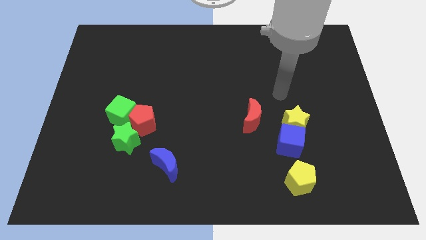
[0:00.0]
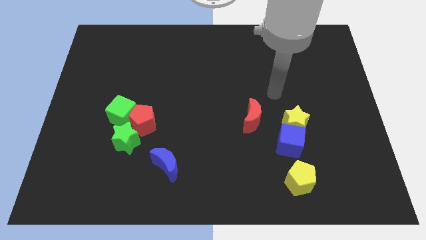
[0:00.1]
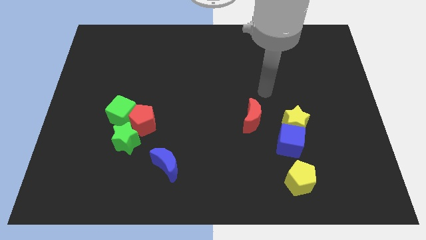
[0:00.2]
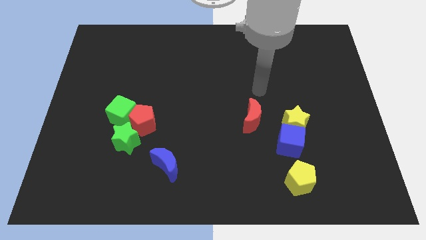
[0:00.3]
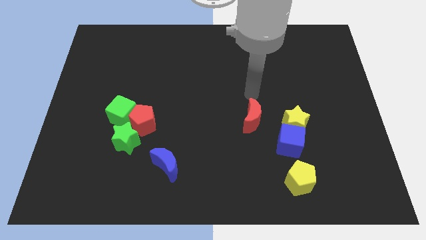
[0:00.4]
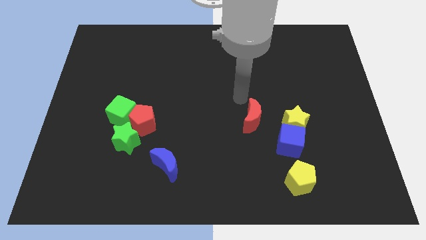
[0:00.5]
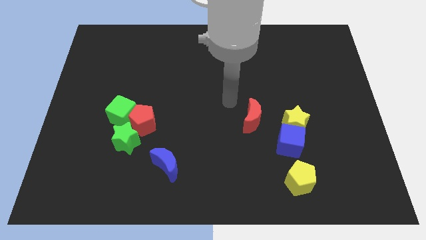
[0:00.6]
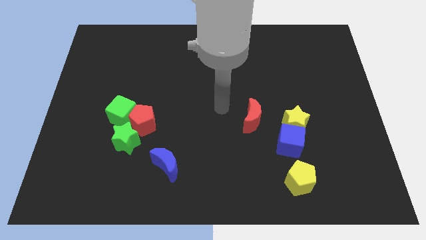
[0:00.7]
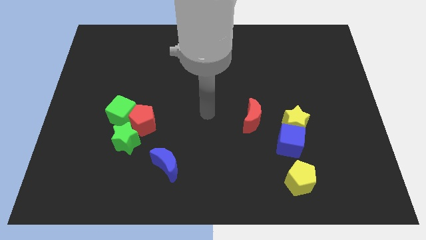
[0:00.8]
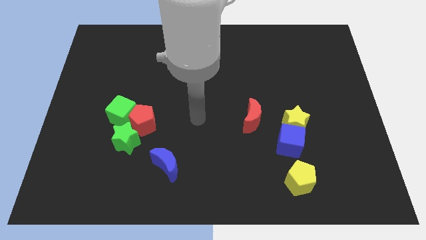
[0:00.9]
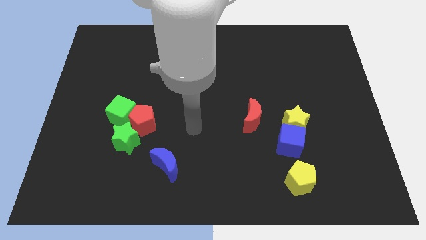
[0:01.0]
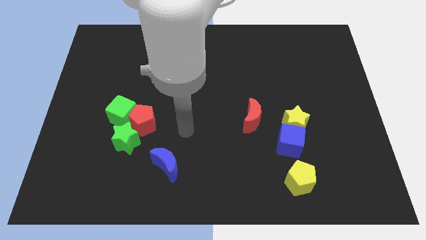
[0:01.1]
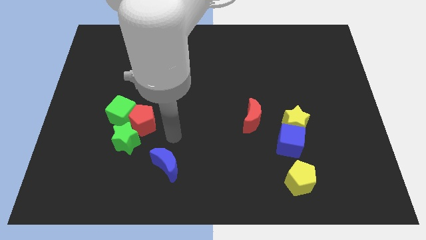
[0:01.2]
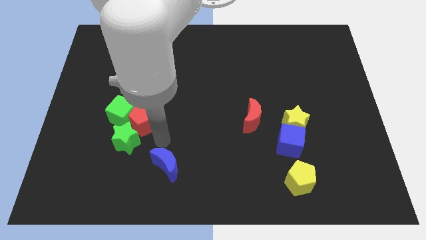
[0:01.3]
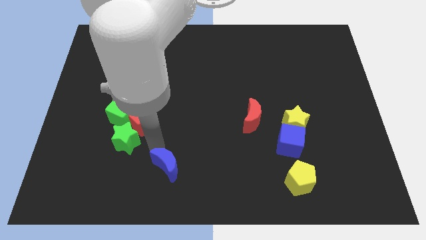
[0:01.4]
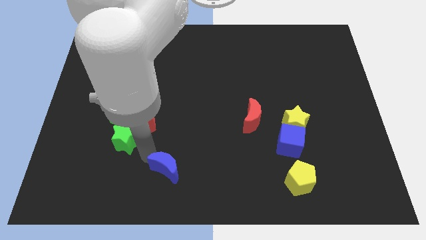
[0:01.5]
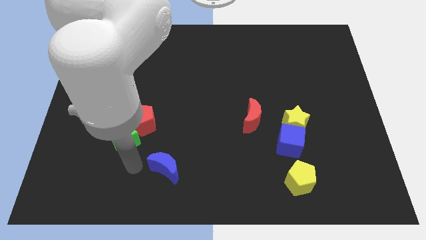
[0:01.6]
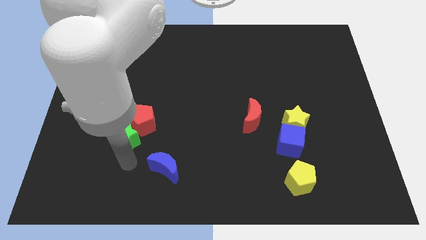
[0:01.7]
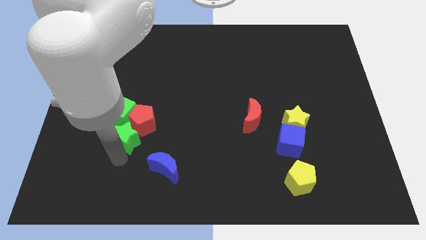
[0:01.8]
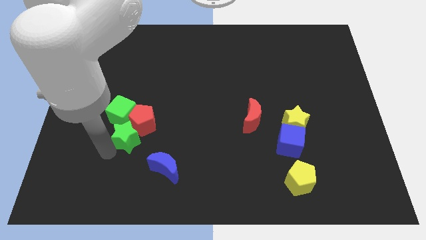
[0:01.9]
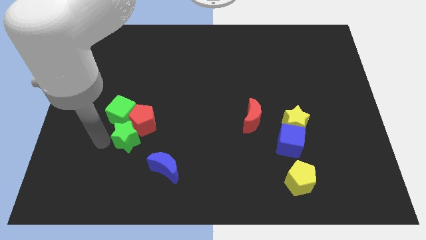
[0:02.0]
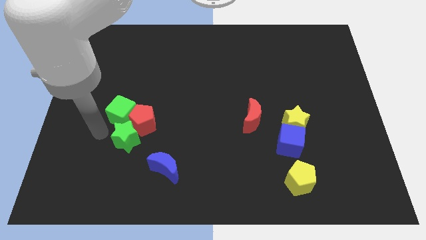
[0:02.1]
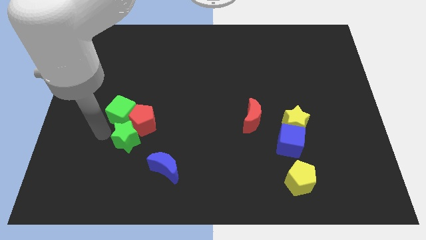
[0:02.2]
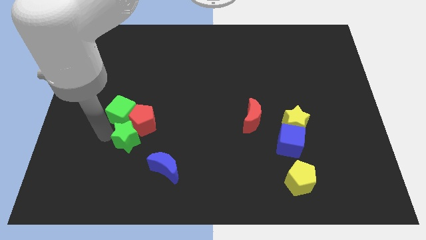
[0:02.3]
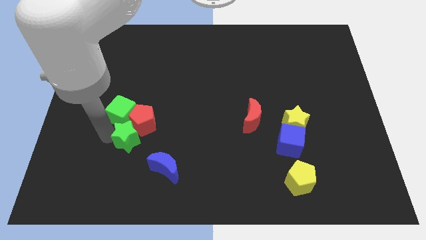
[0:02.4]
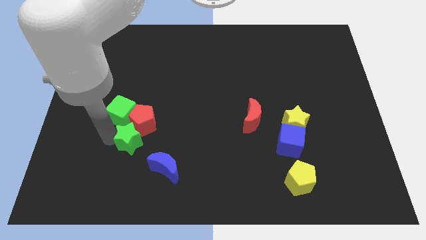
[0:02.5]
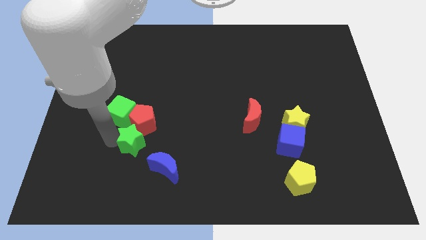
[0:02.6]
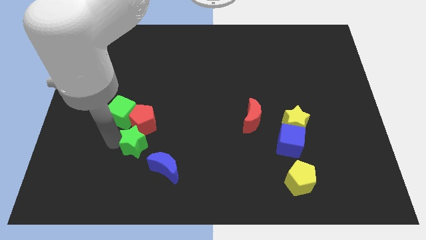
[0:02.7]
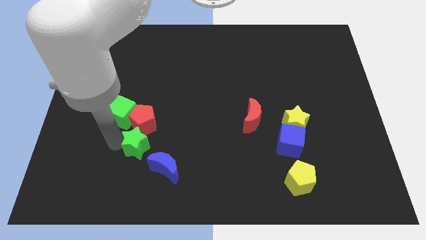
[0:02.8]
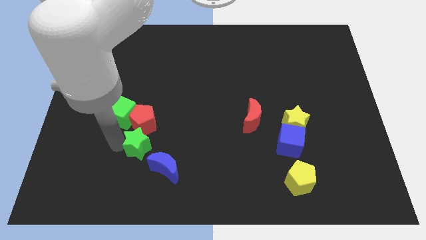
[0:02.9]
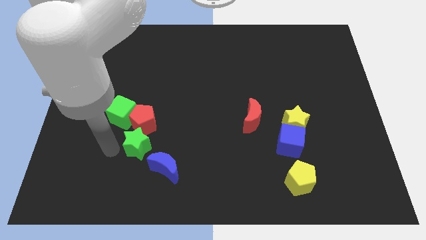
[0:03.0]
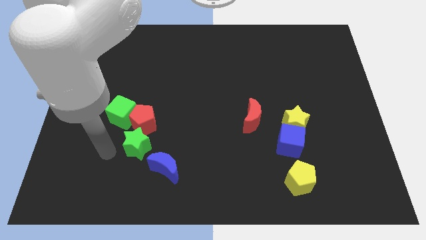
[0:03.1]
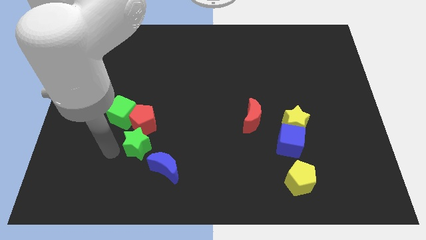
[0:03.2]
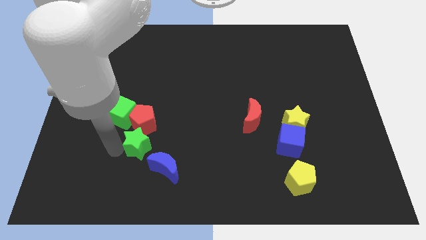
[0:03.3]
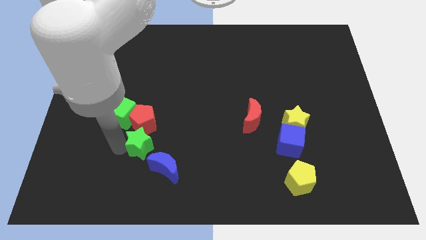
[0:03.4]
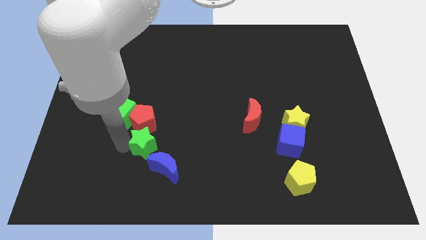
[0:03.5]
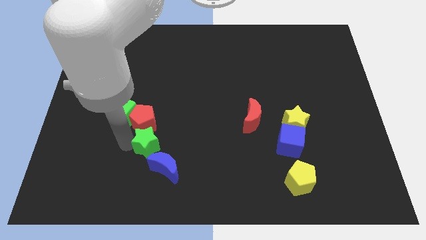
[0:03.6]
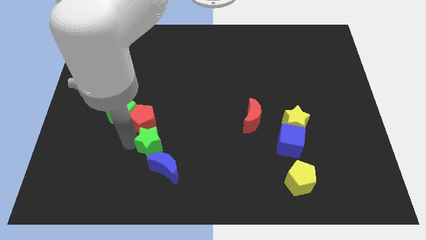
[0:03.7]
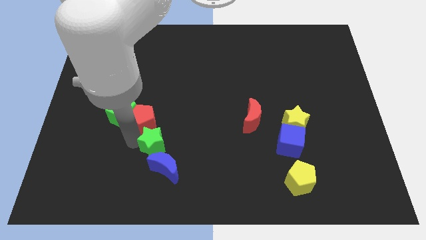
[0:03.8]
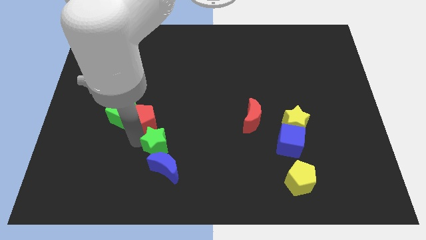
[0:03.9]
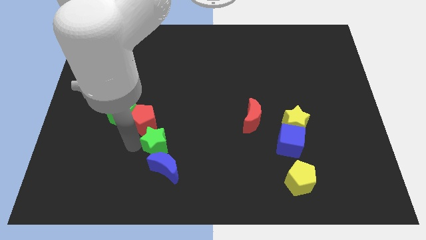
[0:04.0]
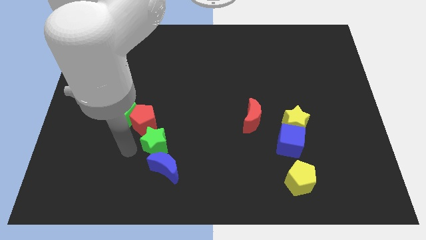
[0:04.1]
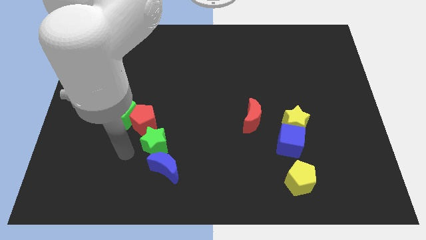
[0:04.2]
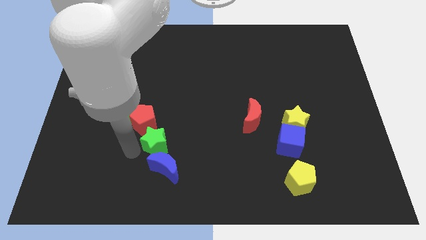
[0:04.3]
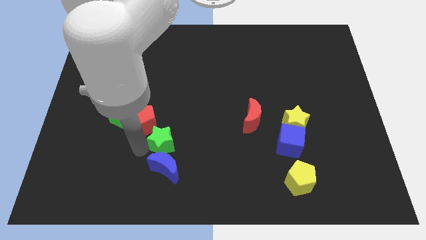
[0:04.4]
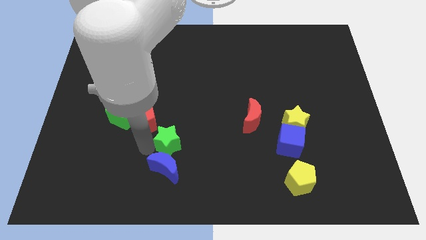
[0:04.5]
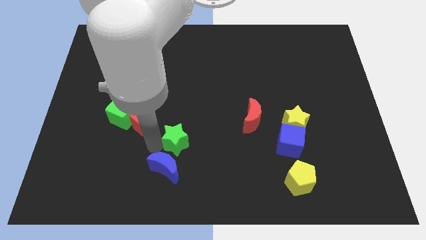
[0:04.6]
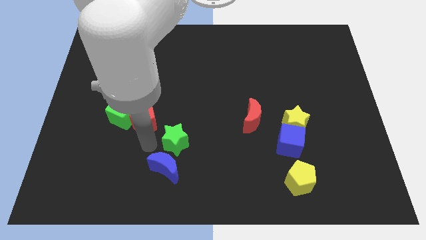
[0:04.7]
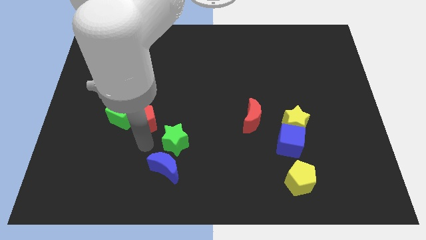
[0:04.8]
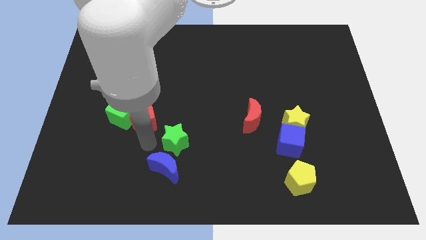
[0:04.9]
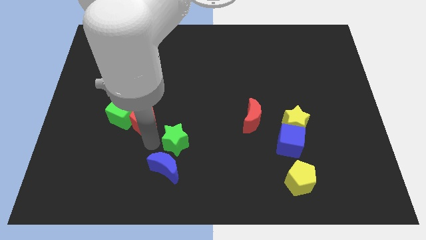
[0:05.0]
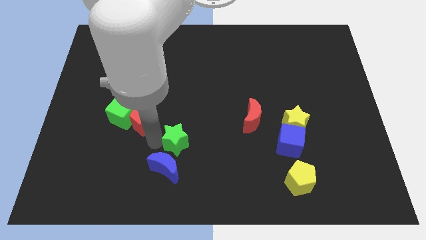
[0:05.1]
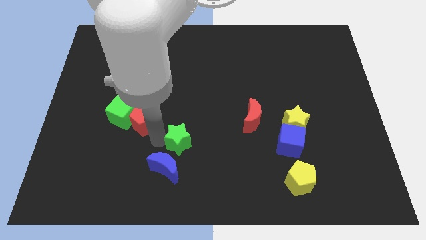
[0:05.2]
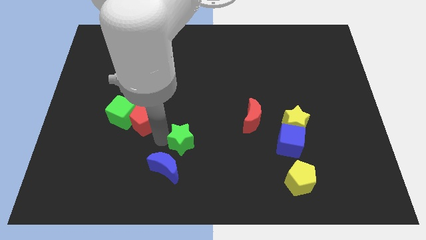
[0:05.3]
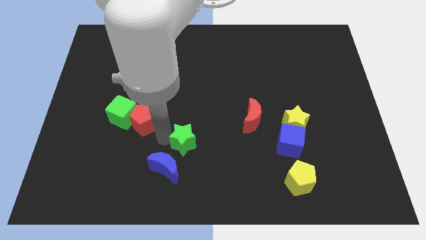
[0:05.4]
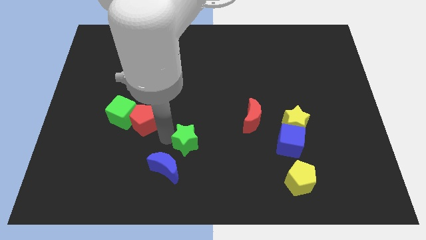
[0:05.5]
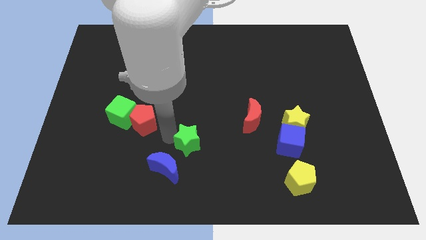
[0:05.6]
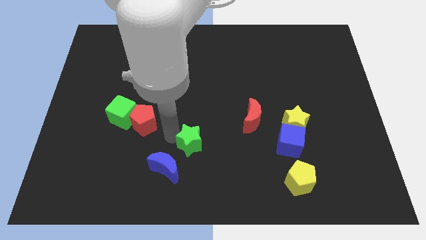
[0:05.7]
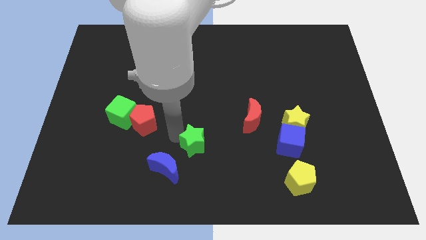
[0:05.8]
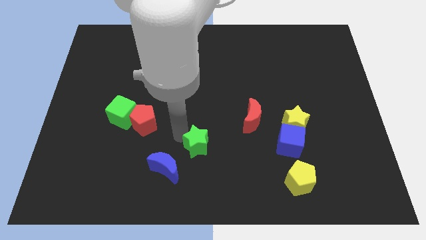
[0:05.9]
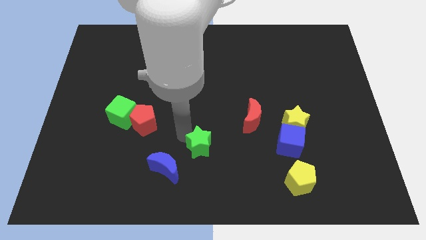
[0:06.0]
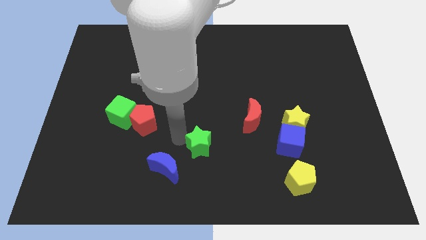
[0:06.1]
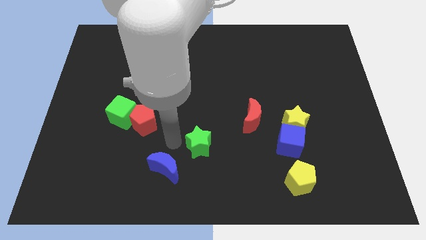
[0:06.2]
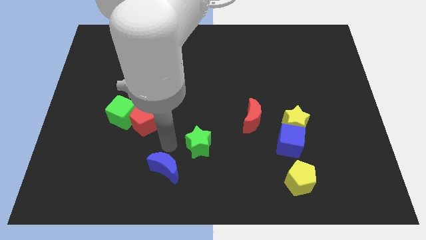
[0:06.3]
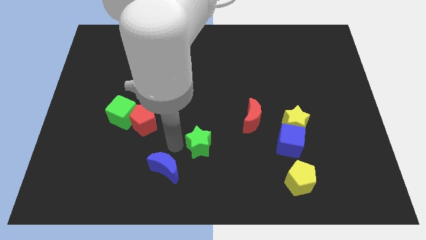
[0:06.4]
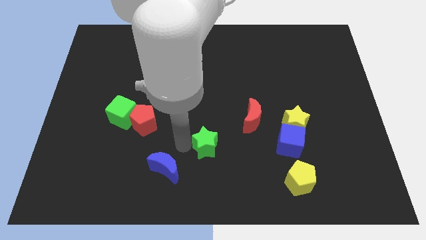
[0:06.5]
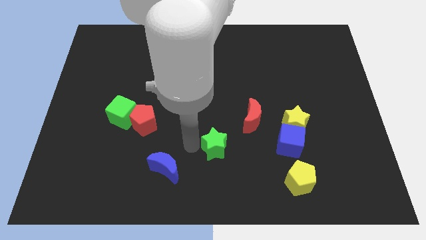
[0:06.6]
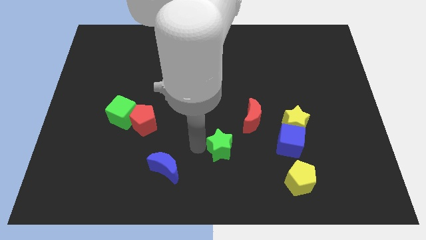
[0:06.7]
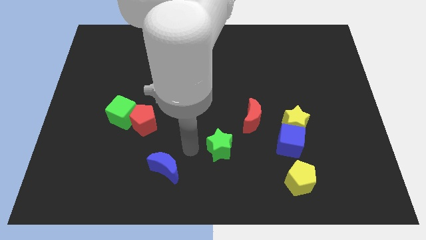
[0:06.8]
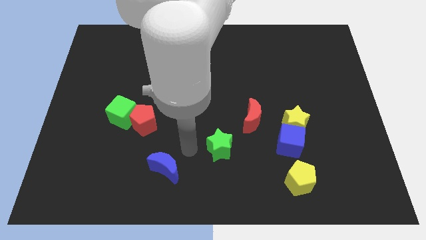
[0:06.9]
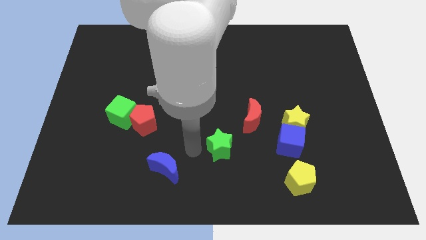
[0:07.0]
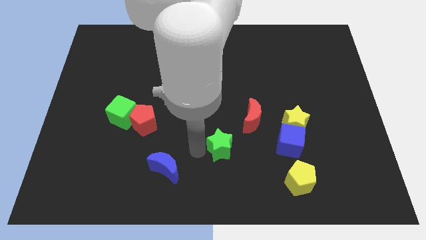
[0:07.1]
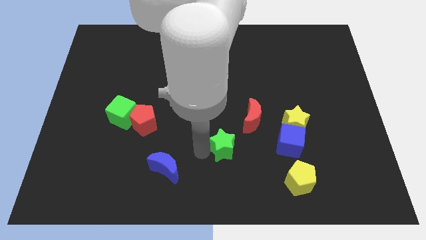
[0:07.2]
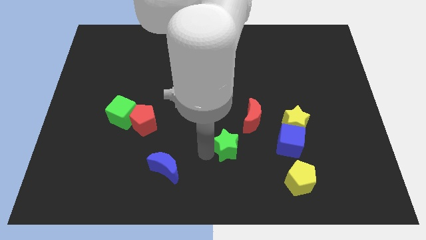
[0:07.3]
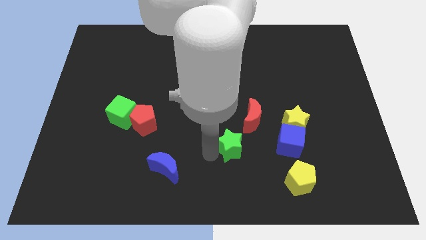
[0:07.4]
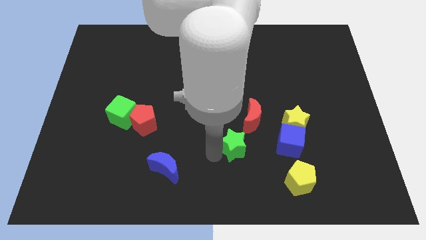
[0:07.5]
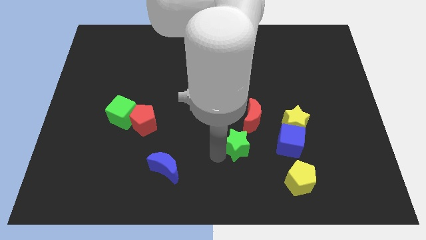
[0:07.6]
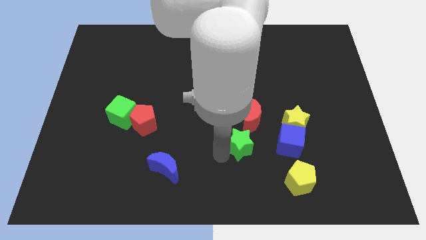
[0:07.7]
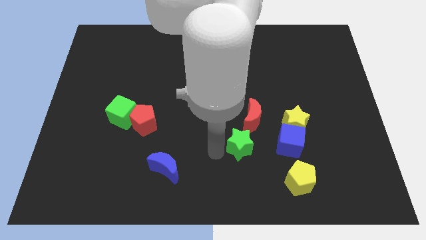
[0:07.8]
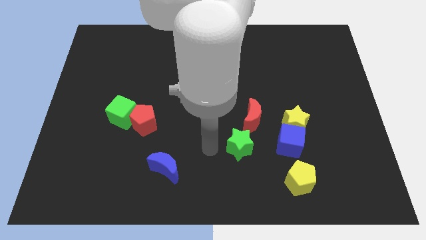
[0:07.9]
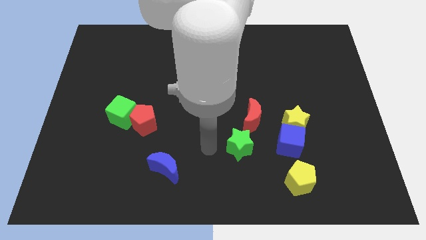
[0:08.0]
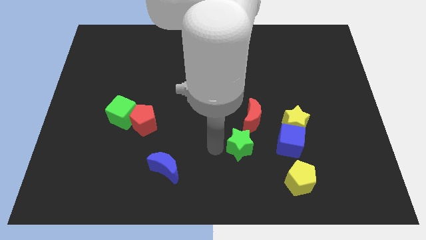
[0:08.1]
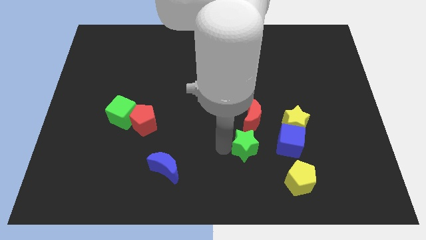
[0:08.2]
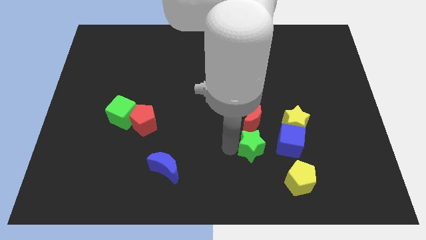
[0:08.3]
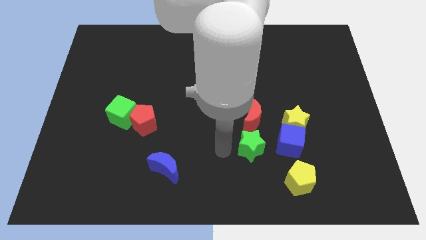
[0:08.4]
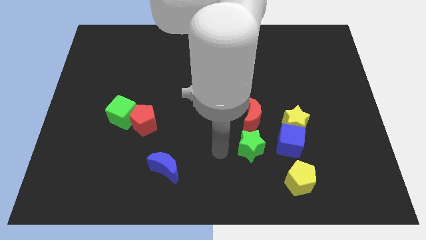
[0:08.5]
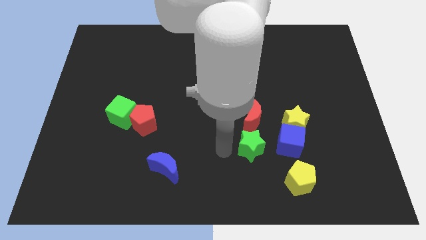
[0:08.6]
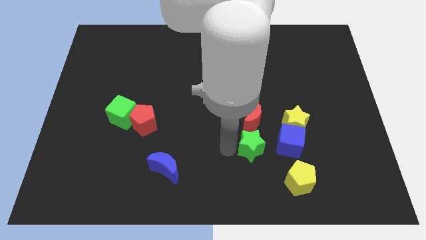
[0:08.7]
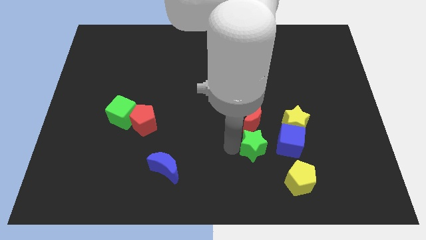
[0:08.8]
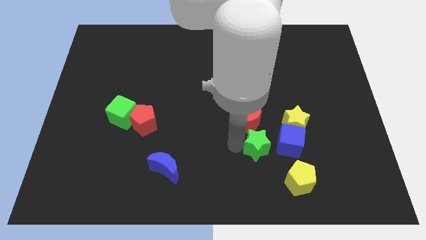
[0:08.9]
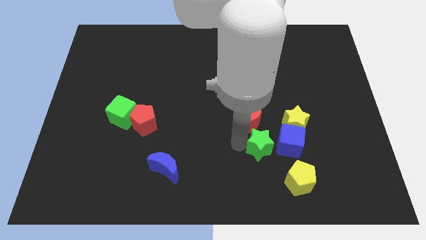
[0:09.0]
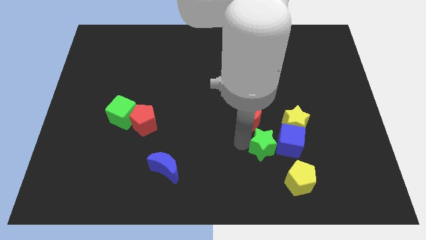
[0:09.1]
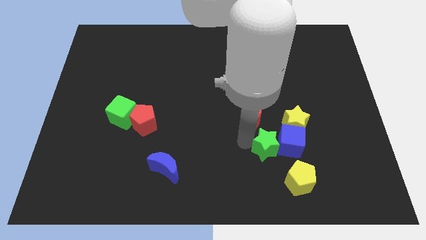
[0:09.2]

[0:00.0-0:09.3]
push the green star close to the blue cube
